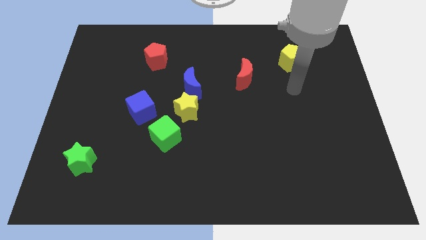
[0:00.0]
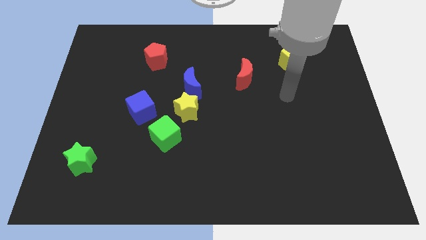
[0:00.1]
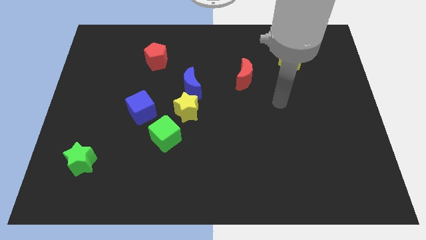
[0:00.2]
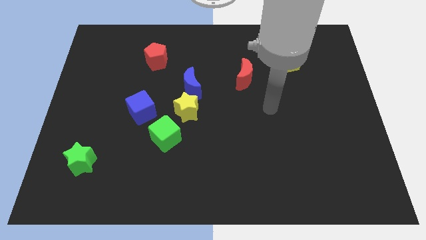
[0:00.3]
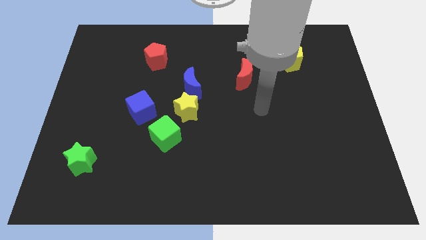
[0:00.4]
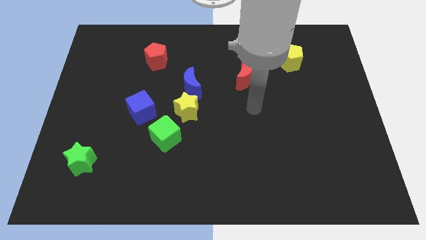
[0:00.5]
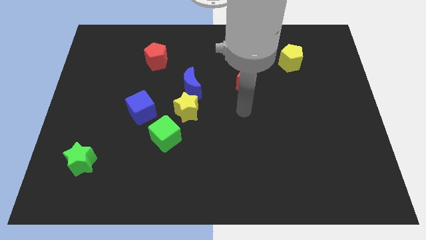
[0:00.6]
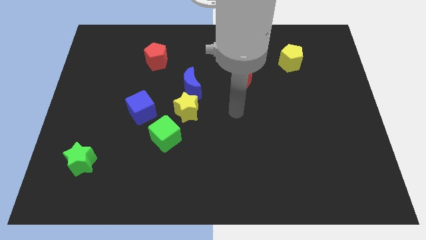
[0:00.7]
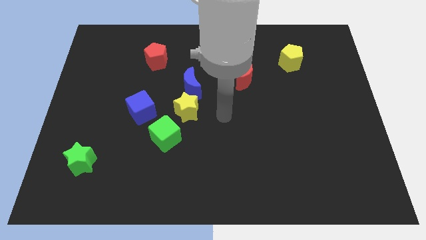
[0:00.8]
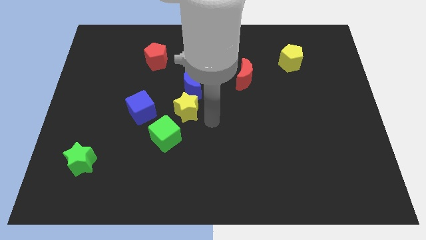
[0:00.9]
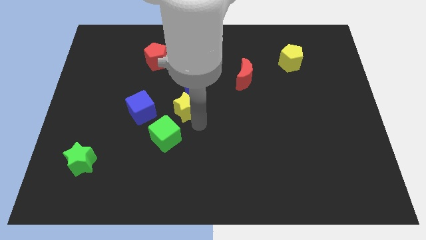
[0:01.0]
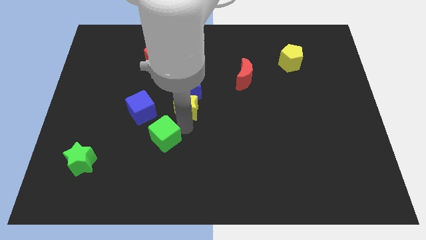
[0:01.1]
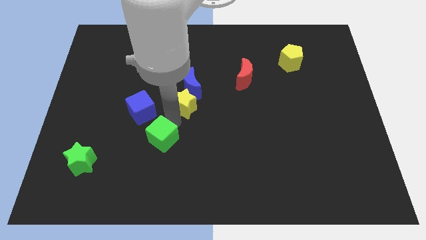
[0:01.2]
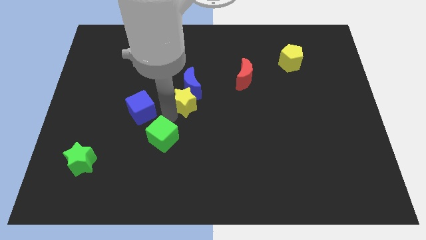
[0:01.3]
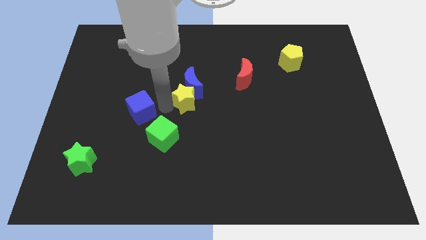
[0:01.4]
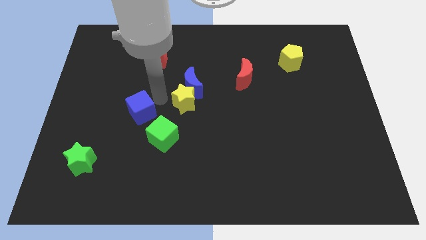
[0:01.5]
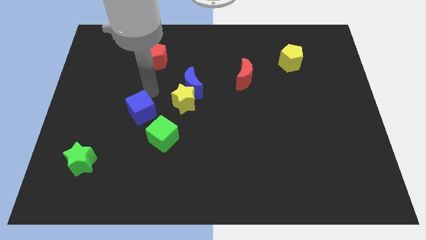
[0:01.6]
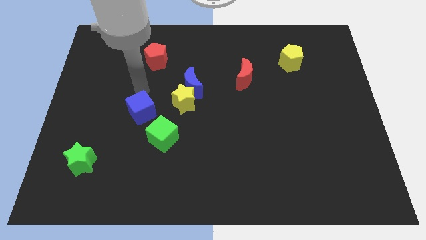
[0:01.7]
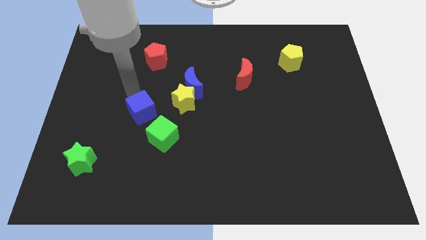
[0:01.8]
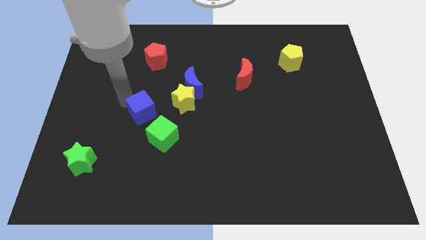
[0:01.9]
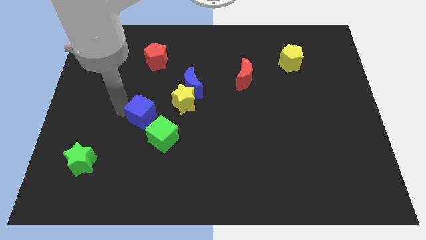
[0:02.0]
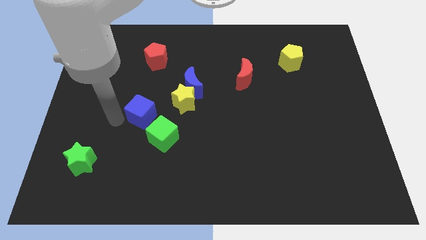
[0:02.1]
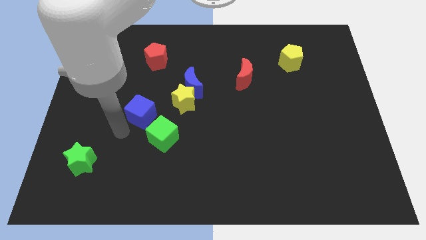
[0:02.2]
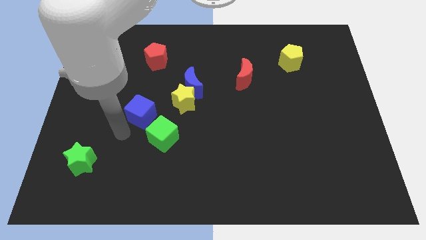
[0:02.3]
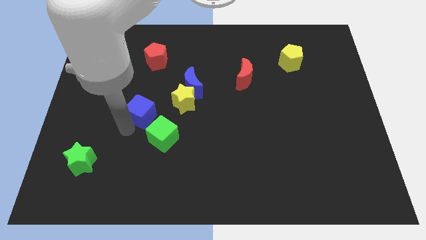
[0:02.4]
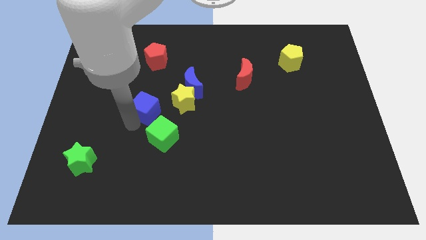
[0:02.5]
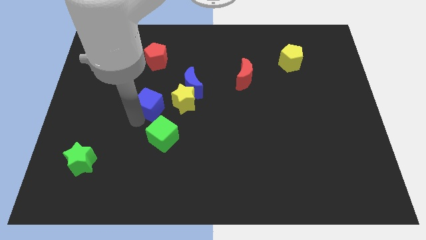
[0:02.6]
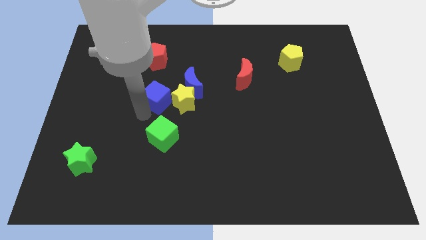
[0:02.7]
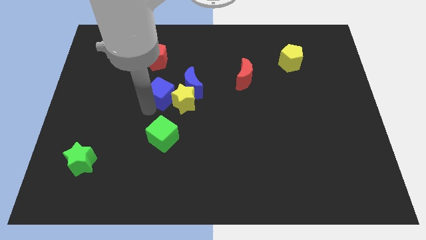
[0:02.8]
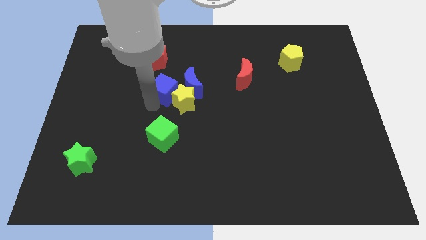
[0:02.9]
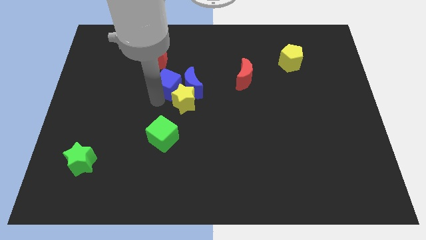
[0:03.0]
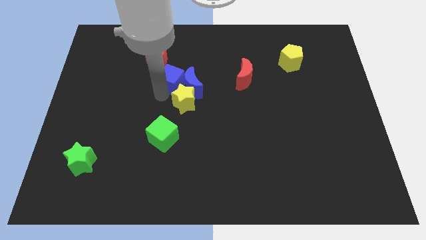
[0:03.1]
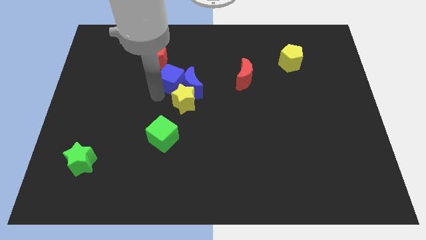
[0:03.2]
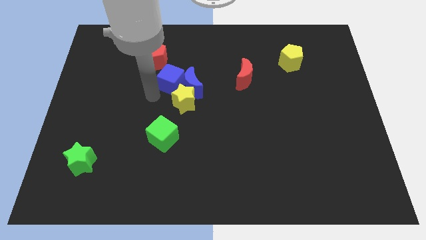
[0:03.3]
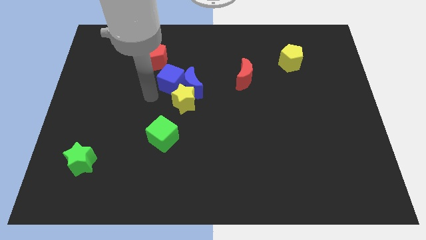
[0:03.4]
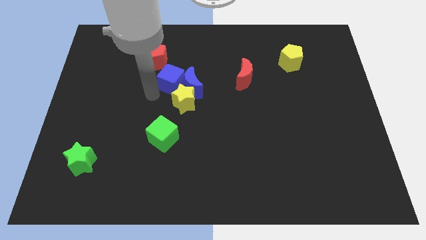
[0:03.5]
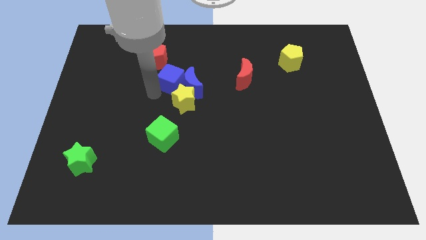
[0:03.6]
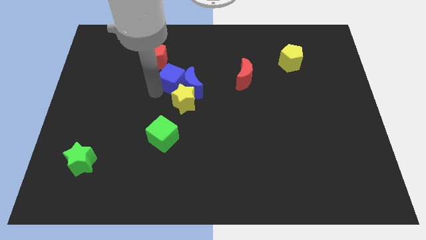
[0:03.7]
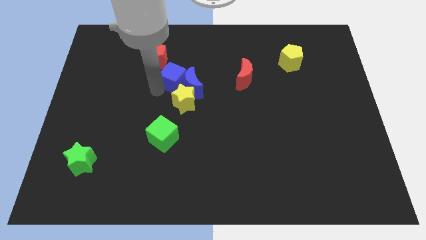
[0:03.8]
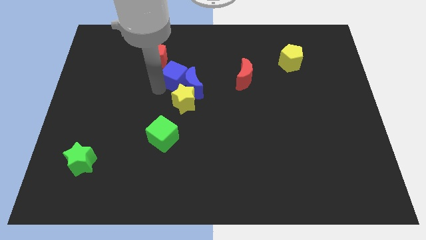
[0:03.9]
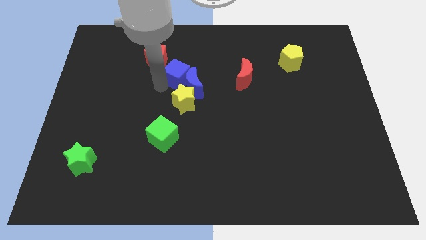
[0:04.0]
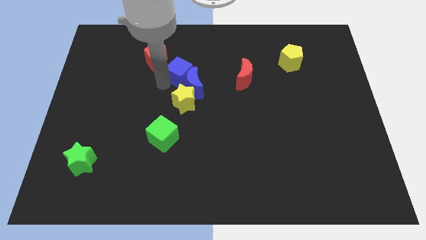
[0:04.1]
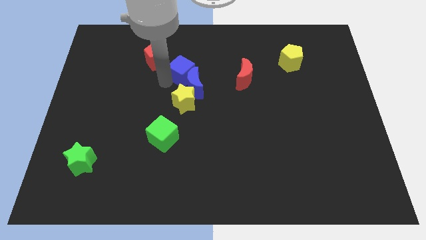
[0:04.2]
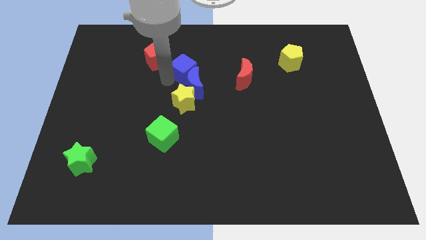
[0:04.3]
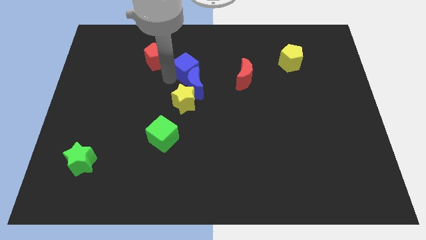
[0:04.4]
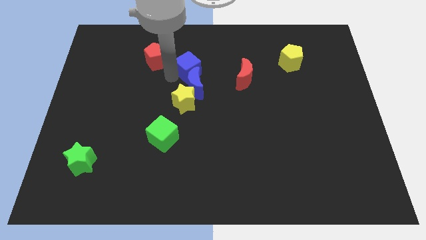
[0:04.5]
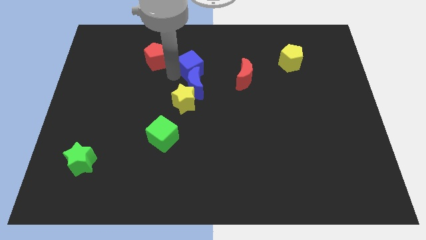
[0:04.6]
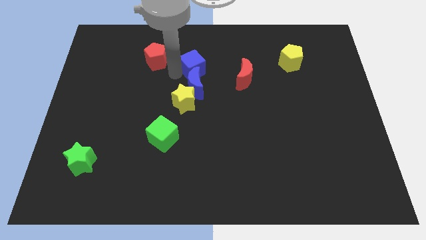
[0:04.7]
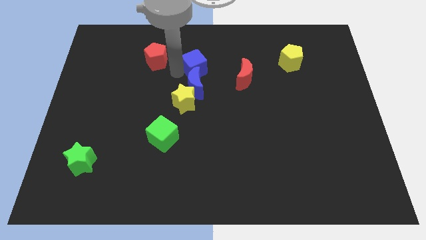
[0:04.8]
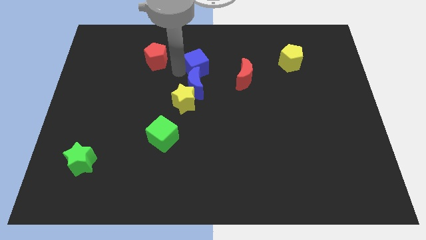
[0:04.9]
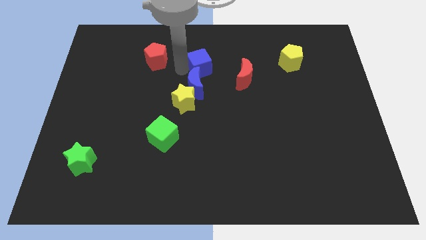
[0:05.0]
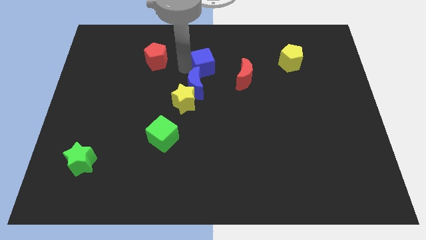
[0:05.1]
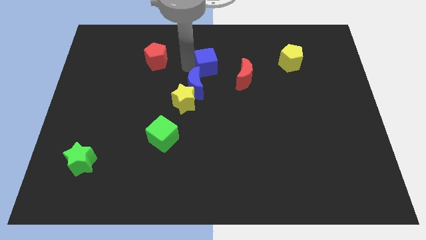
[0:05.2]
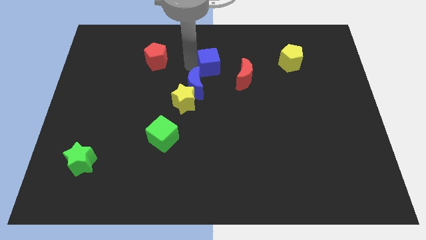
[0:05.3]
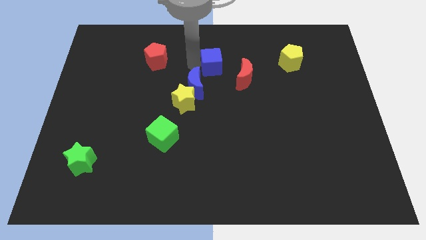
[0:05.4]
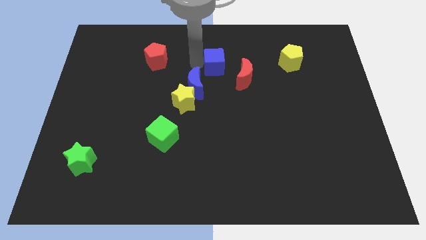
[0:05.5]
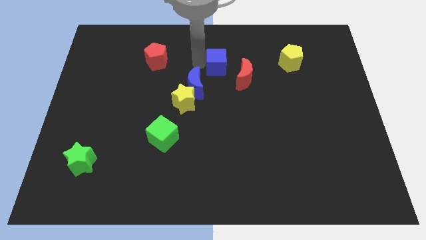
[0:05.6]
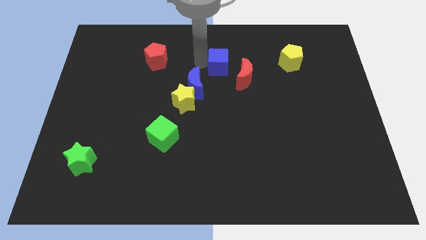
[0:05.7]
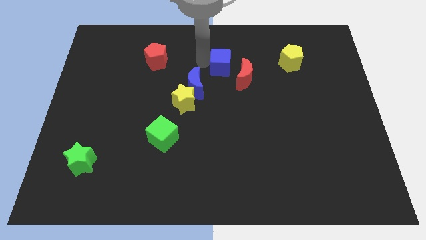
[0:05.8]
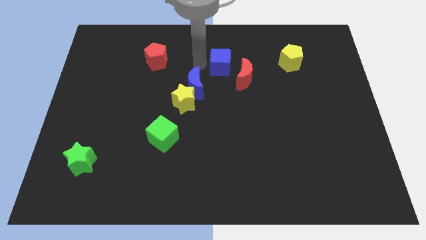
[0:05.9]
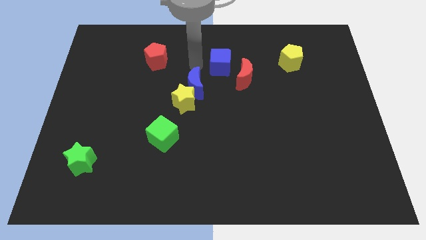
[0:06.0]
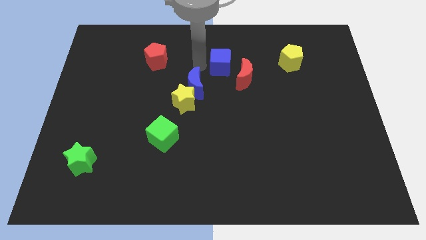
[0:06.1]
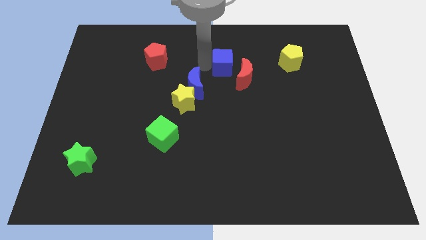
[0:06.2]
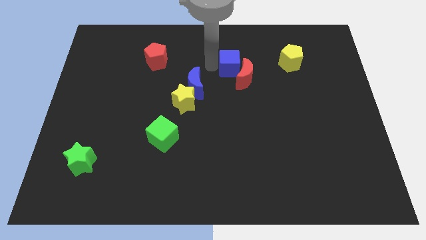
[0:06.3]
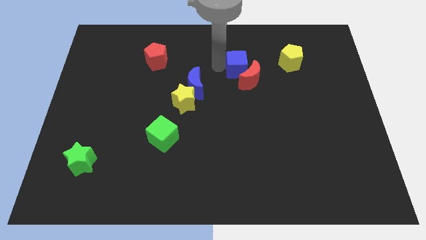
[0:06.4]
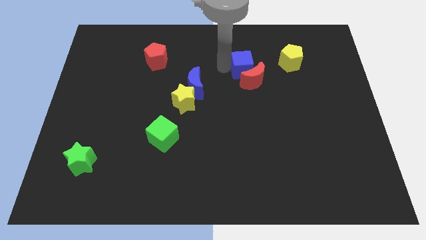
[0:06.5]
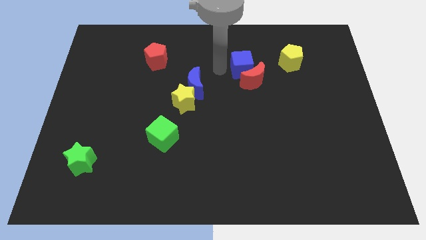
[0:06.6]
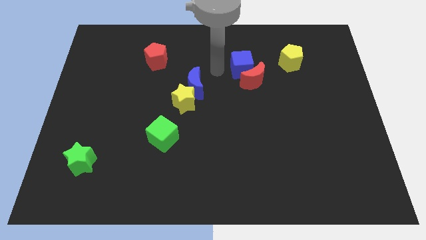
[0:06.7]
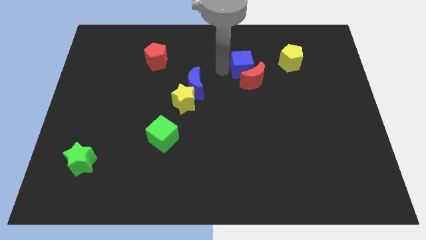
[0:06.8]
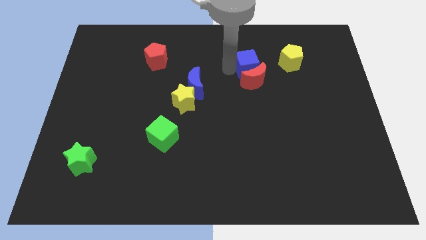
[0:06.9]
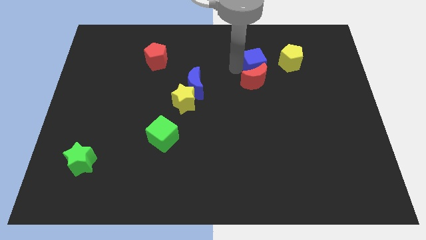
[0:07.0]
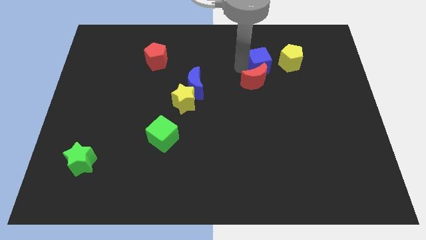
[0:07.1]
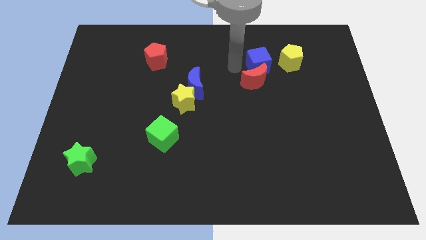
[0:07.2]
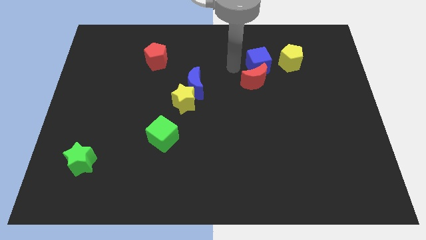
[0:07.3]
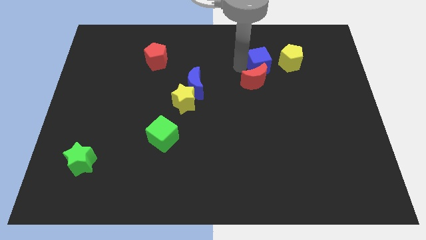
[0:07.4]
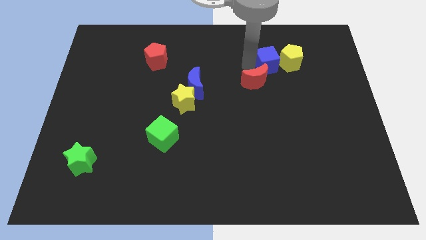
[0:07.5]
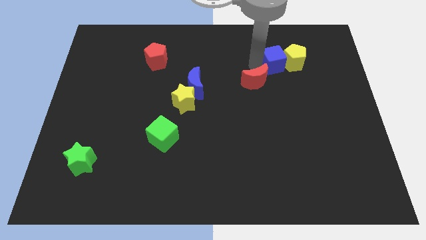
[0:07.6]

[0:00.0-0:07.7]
put the blue cube to the yellow pentagon
